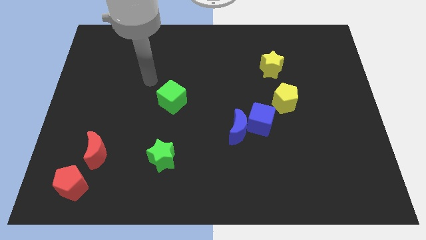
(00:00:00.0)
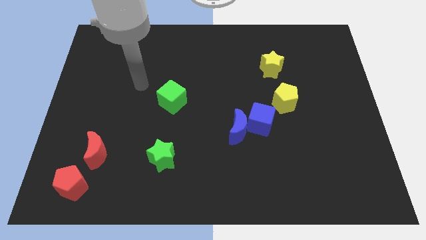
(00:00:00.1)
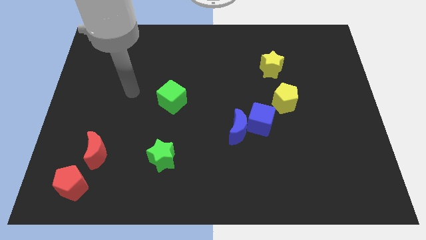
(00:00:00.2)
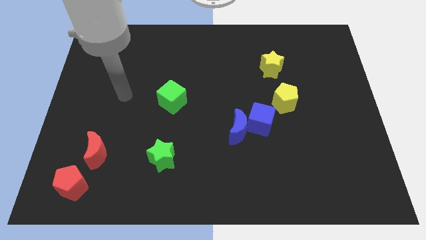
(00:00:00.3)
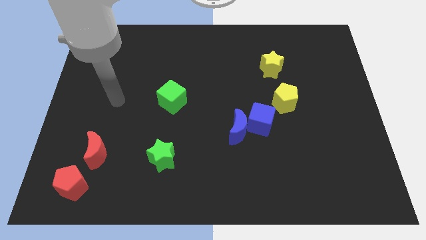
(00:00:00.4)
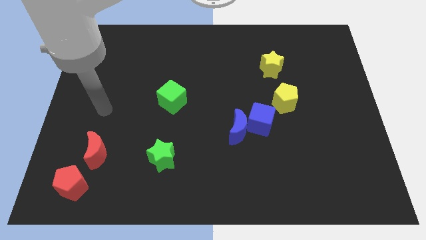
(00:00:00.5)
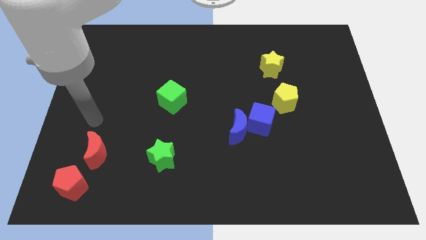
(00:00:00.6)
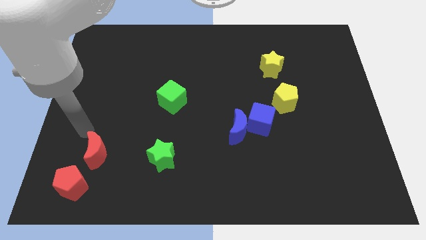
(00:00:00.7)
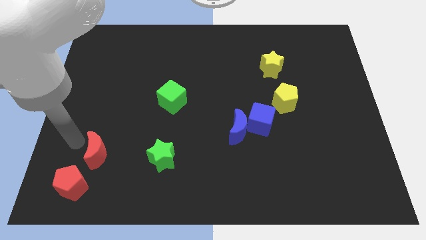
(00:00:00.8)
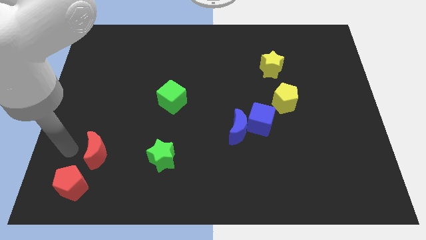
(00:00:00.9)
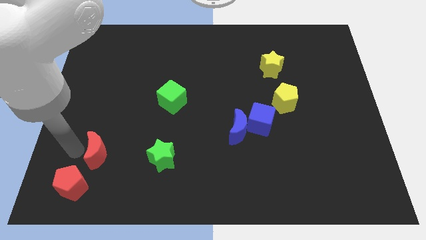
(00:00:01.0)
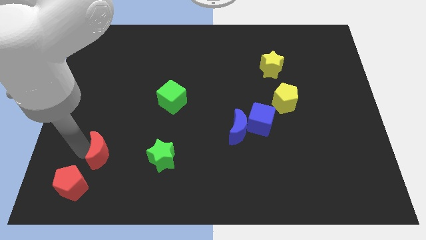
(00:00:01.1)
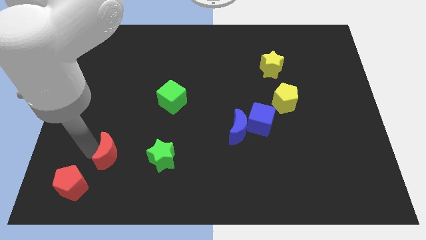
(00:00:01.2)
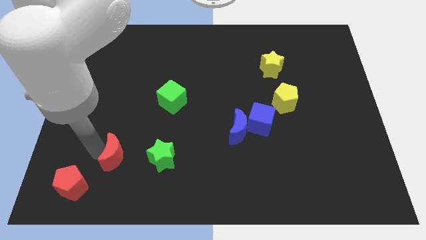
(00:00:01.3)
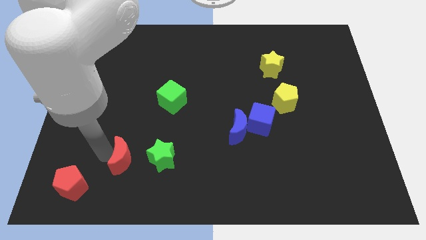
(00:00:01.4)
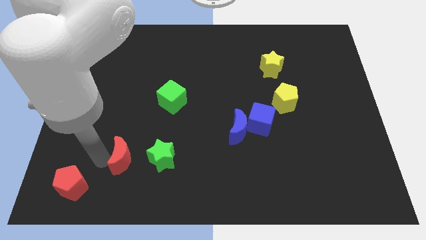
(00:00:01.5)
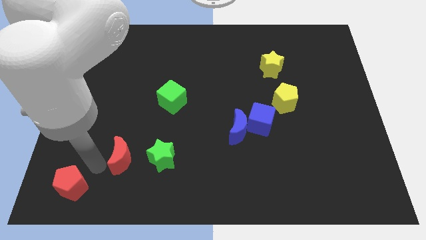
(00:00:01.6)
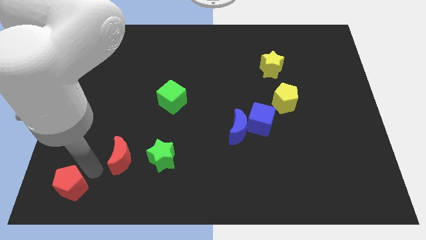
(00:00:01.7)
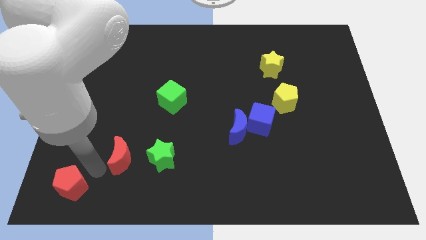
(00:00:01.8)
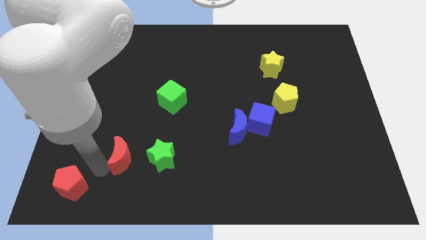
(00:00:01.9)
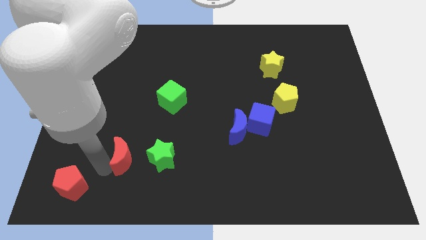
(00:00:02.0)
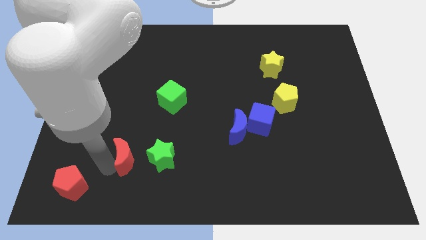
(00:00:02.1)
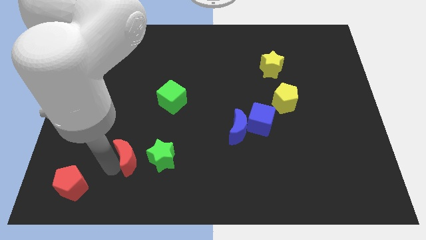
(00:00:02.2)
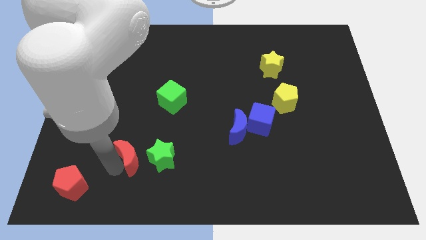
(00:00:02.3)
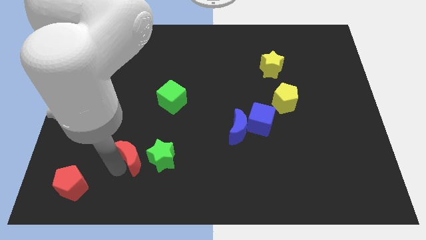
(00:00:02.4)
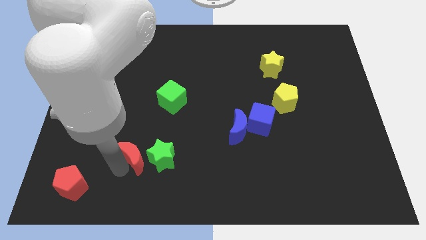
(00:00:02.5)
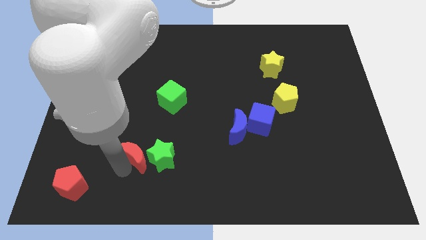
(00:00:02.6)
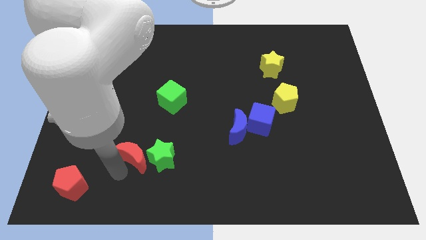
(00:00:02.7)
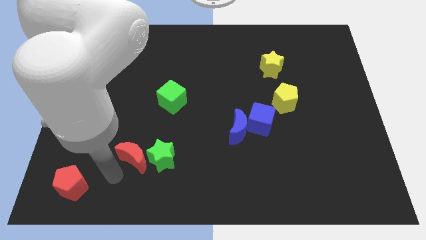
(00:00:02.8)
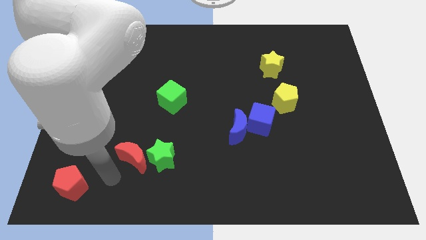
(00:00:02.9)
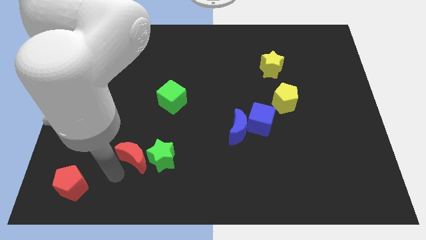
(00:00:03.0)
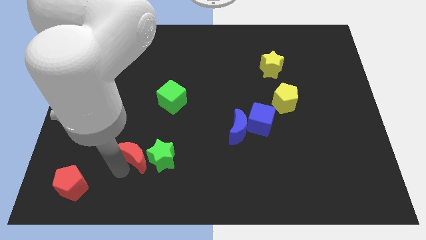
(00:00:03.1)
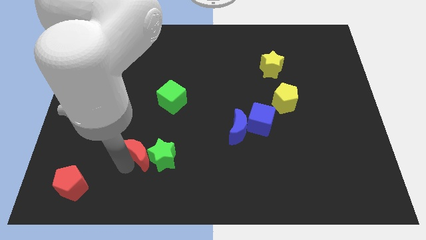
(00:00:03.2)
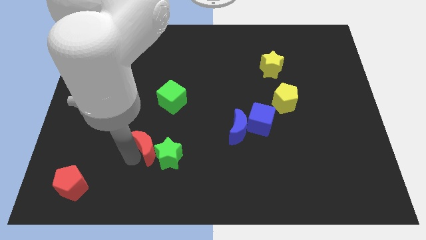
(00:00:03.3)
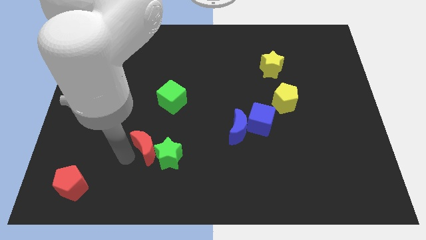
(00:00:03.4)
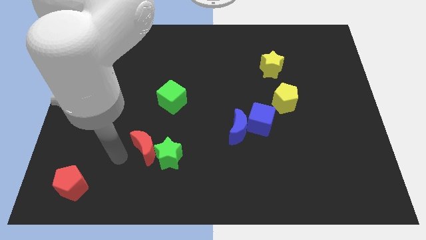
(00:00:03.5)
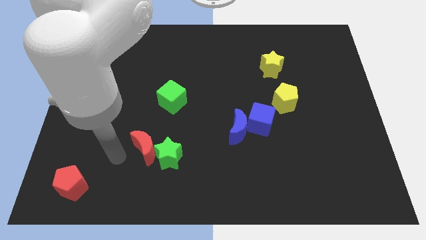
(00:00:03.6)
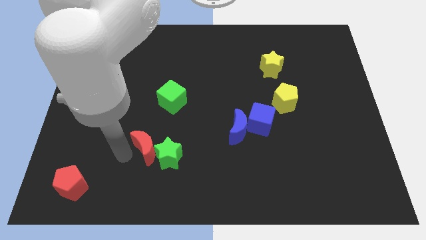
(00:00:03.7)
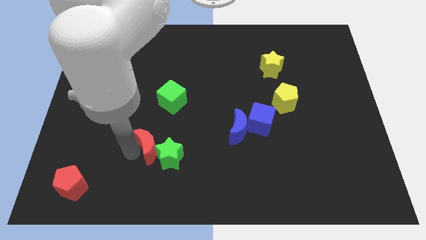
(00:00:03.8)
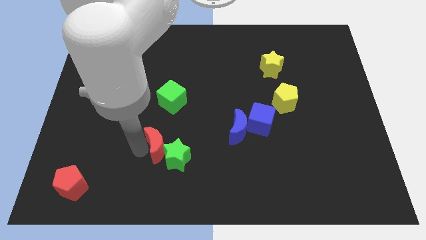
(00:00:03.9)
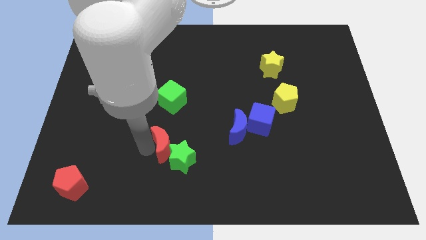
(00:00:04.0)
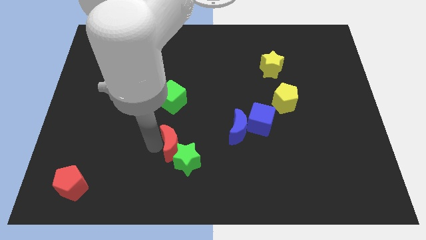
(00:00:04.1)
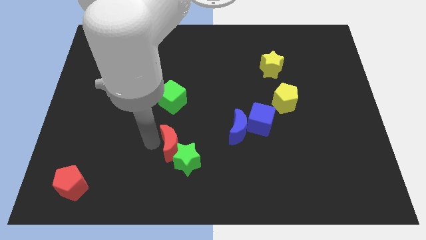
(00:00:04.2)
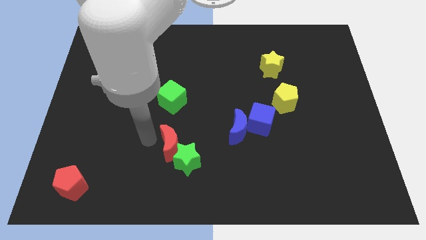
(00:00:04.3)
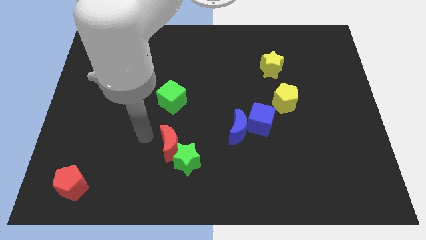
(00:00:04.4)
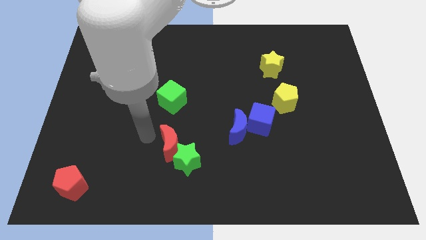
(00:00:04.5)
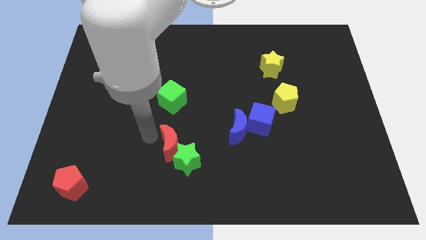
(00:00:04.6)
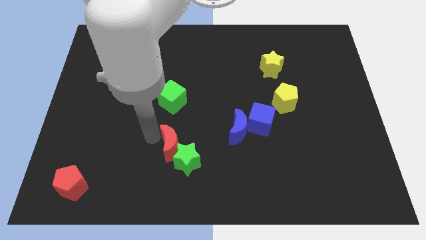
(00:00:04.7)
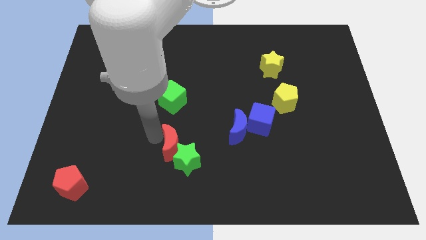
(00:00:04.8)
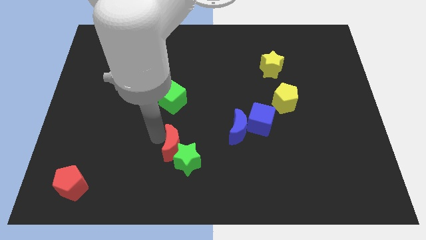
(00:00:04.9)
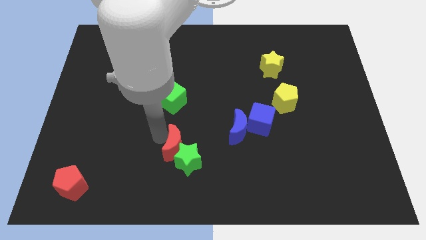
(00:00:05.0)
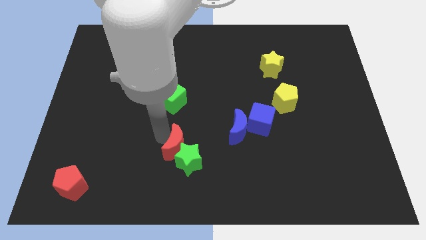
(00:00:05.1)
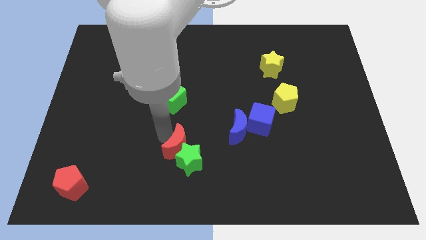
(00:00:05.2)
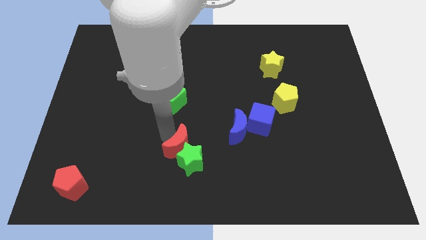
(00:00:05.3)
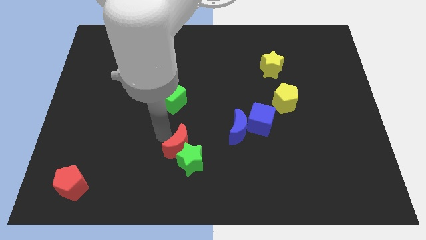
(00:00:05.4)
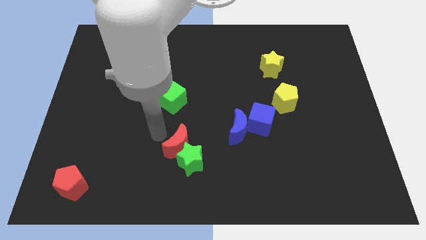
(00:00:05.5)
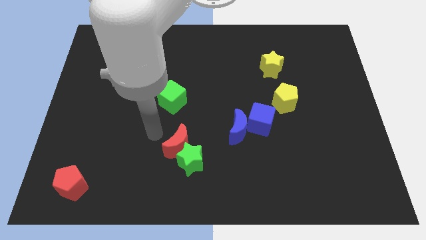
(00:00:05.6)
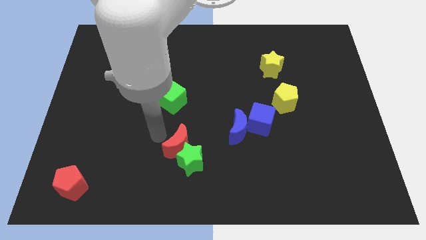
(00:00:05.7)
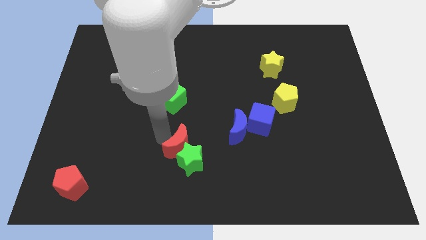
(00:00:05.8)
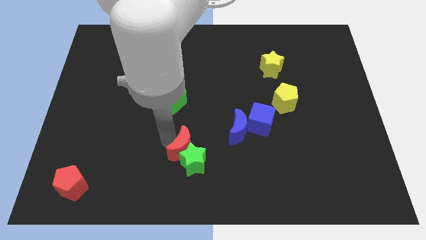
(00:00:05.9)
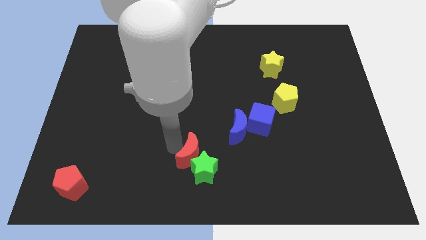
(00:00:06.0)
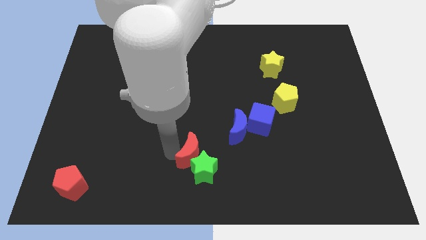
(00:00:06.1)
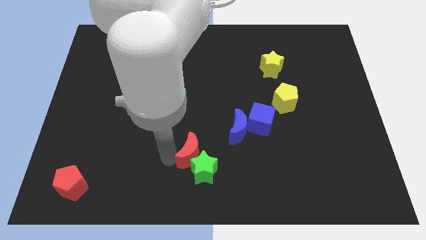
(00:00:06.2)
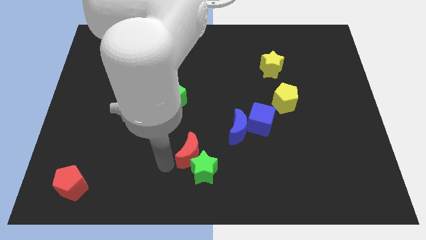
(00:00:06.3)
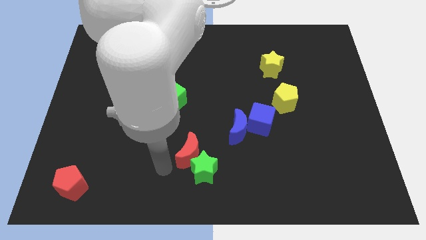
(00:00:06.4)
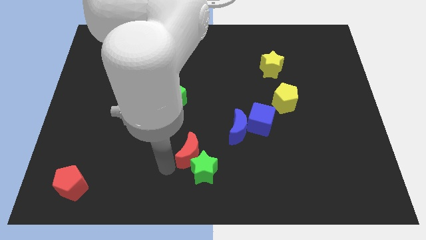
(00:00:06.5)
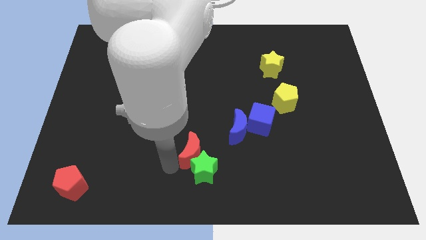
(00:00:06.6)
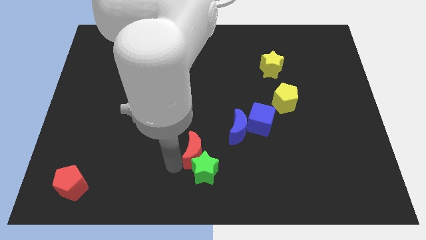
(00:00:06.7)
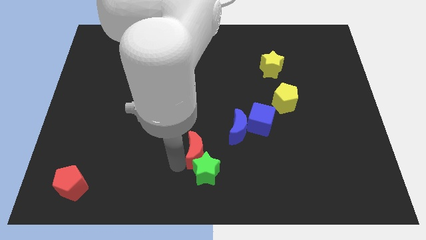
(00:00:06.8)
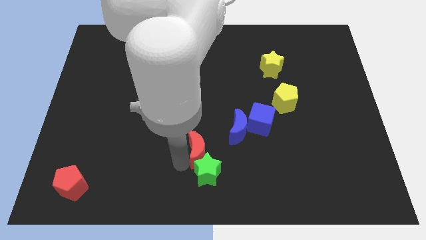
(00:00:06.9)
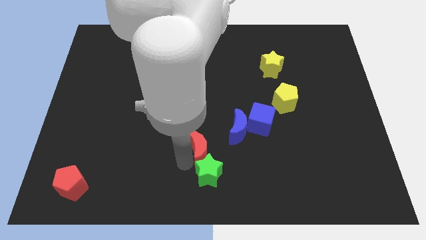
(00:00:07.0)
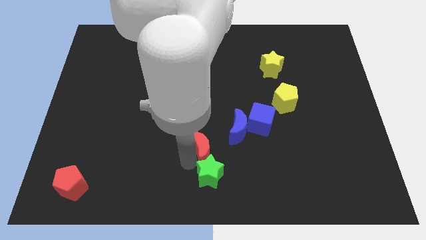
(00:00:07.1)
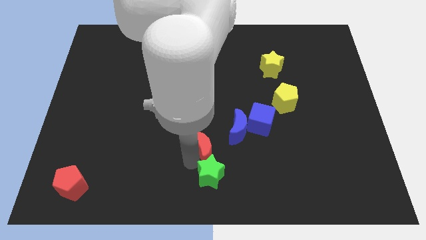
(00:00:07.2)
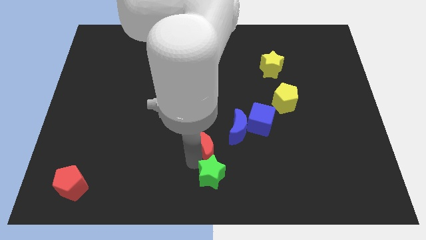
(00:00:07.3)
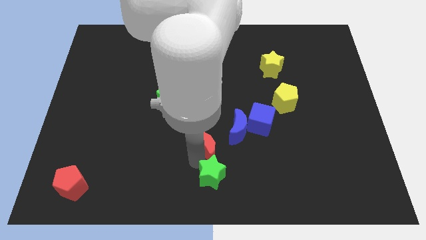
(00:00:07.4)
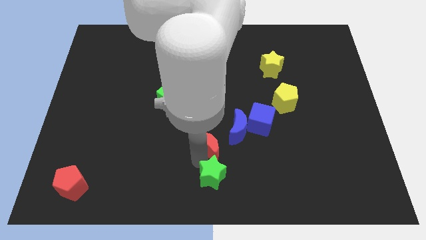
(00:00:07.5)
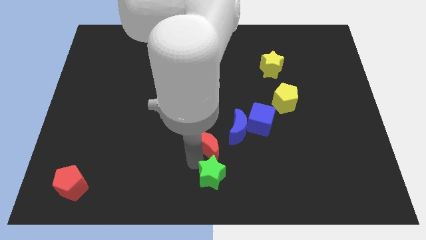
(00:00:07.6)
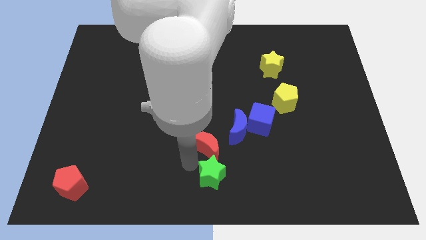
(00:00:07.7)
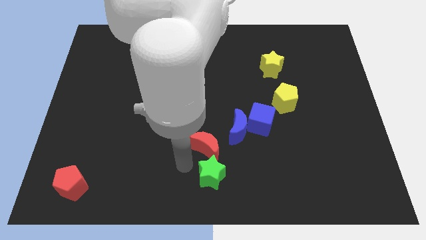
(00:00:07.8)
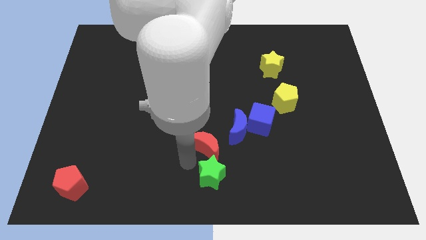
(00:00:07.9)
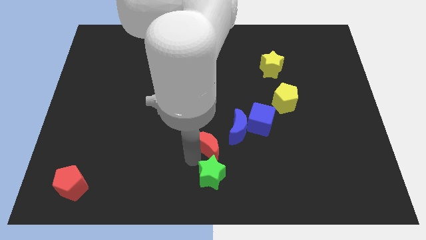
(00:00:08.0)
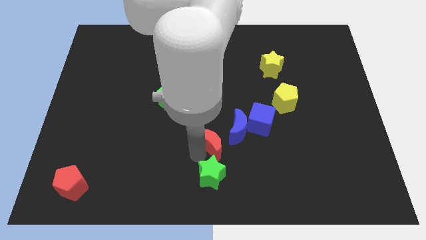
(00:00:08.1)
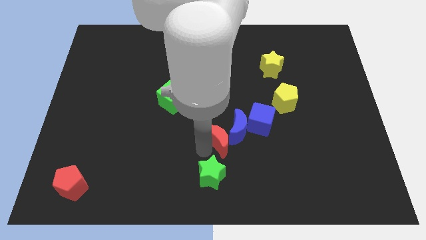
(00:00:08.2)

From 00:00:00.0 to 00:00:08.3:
move the red moon close to the blue moon
